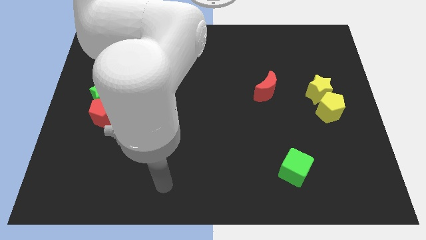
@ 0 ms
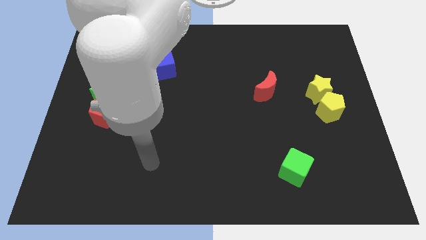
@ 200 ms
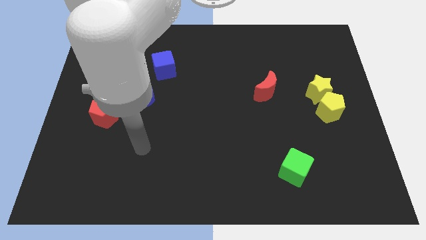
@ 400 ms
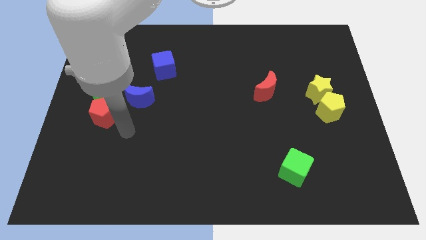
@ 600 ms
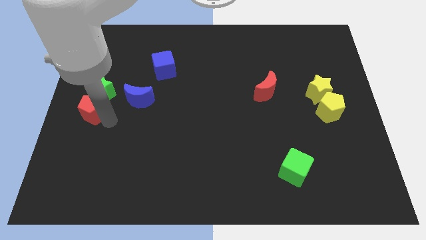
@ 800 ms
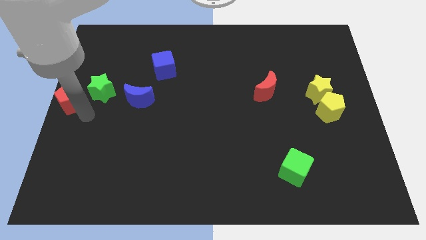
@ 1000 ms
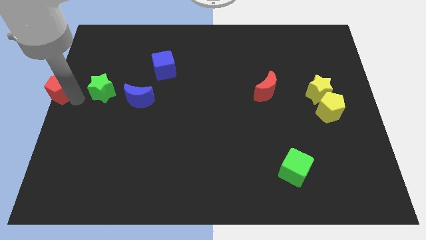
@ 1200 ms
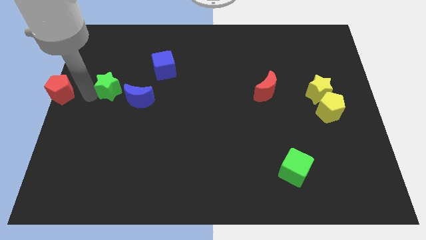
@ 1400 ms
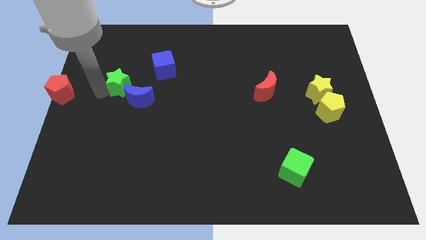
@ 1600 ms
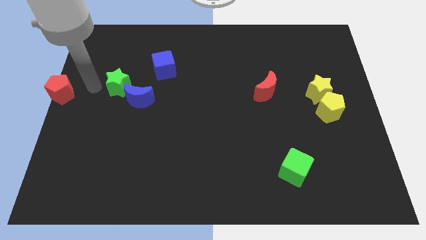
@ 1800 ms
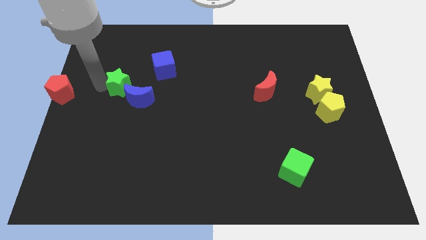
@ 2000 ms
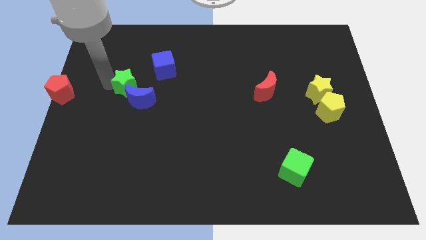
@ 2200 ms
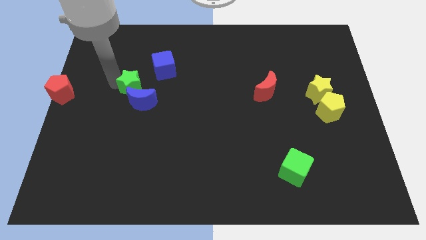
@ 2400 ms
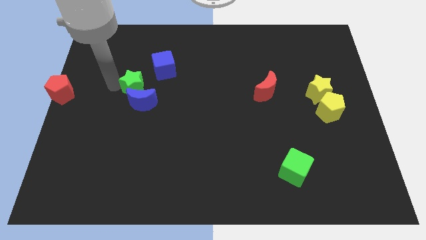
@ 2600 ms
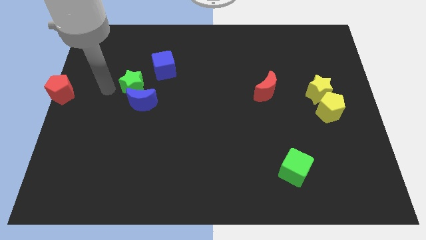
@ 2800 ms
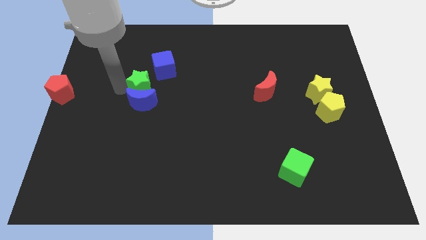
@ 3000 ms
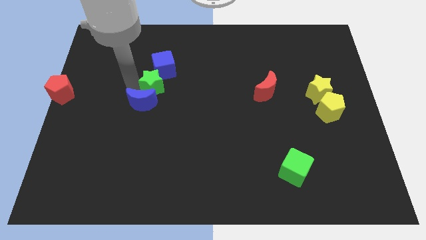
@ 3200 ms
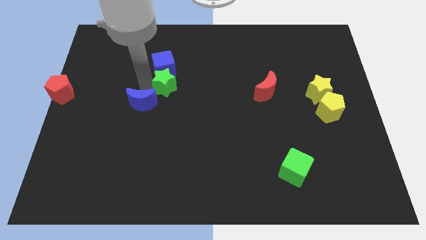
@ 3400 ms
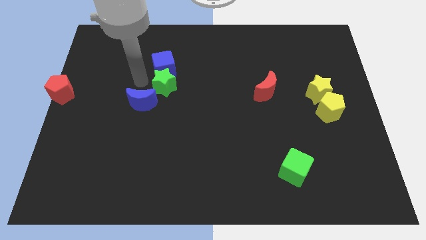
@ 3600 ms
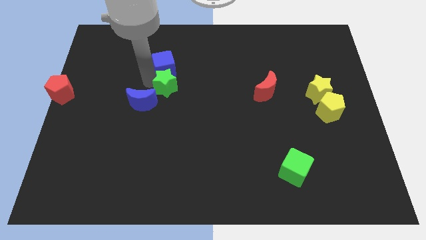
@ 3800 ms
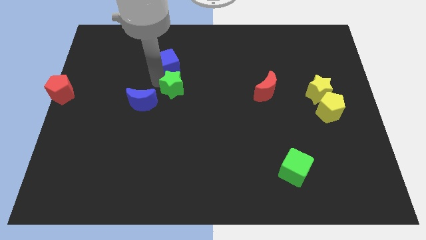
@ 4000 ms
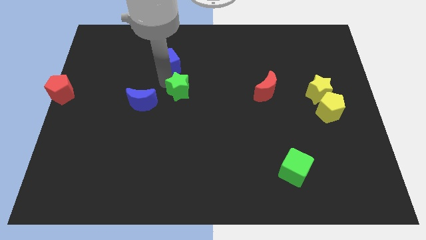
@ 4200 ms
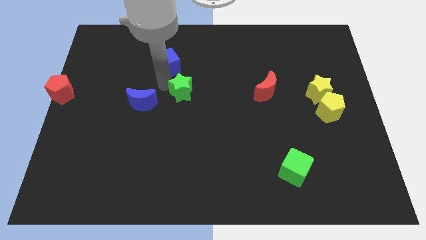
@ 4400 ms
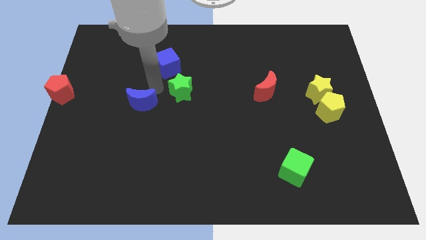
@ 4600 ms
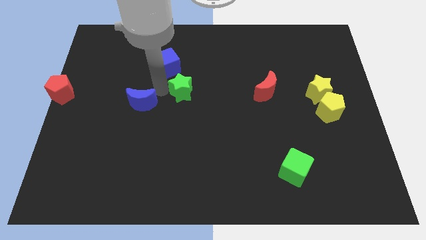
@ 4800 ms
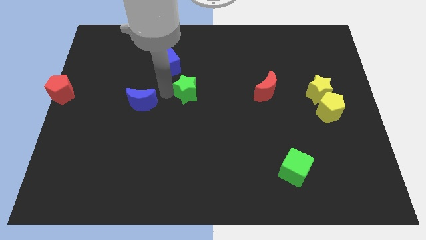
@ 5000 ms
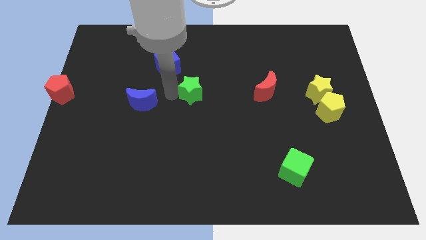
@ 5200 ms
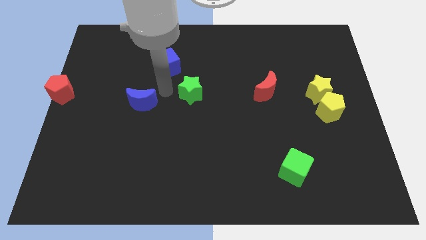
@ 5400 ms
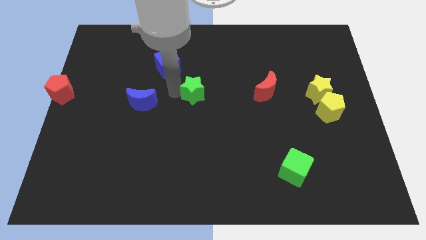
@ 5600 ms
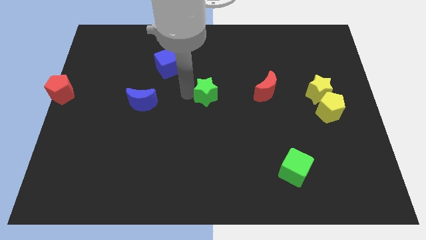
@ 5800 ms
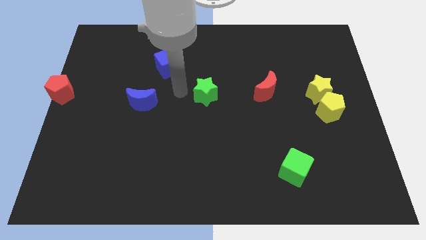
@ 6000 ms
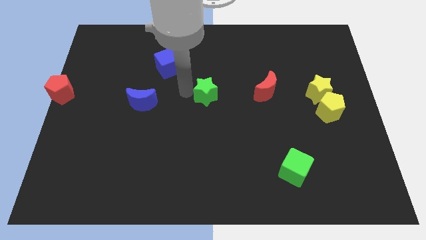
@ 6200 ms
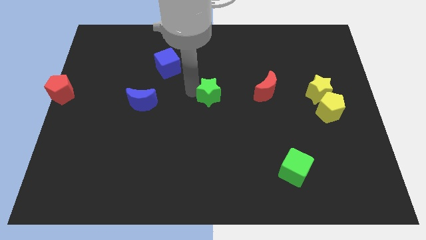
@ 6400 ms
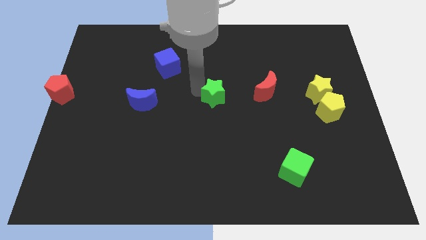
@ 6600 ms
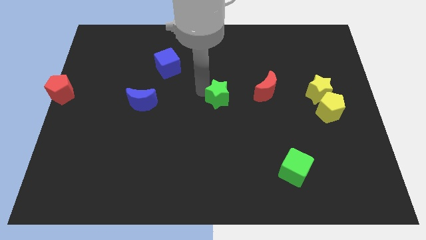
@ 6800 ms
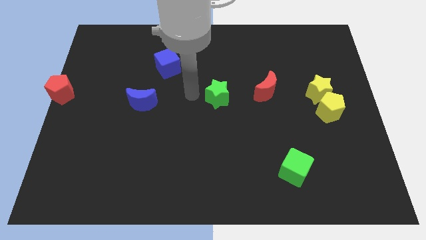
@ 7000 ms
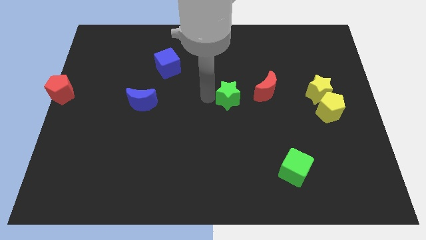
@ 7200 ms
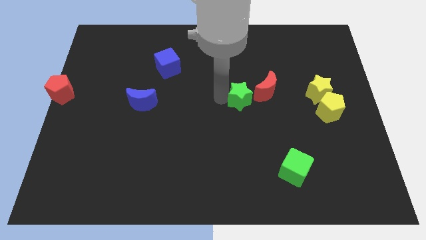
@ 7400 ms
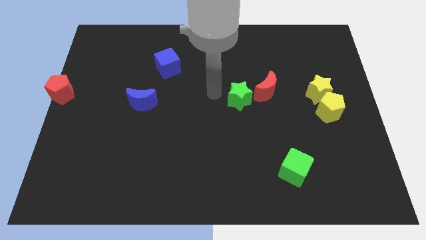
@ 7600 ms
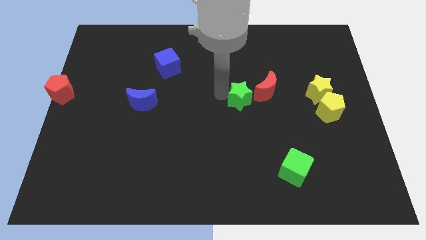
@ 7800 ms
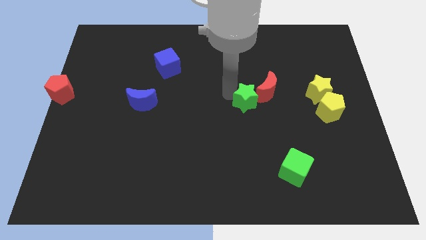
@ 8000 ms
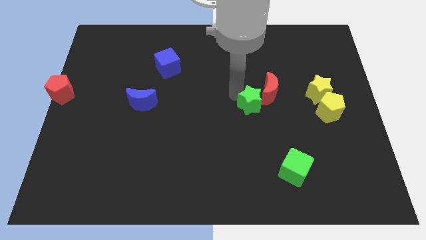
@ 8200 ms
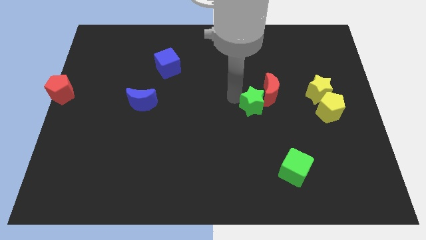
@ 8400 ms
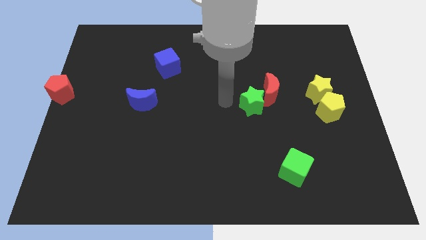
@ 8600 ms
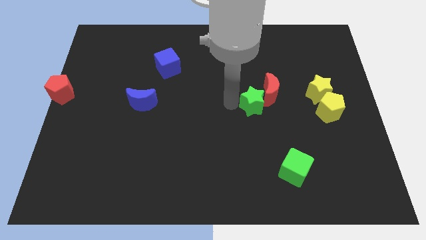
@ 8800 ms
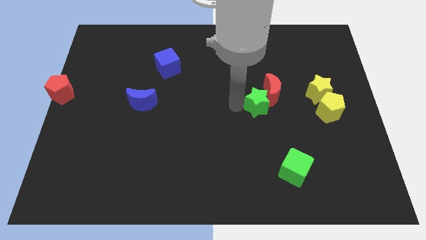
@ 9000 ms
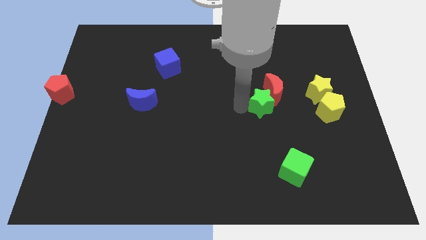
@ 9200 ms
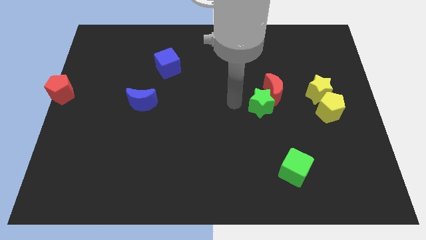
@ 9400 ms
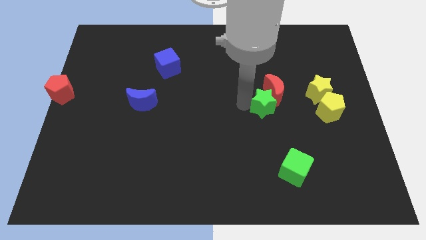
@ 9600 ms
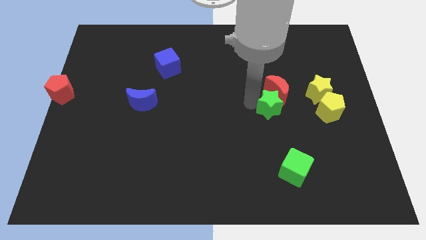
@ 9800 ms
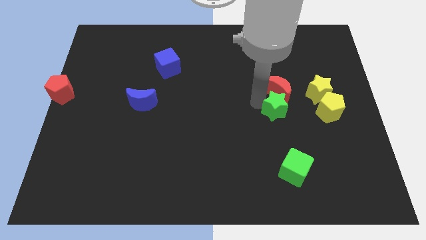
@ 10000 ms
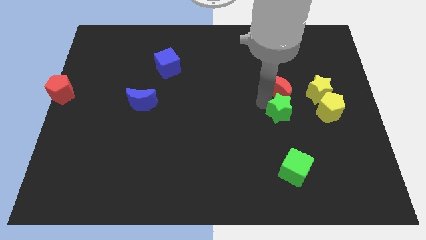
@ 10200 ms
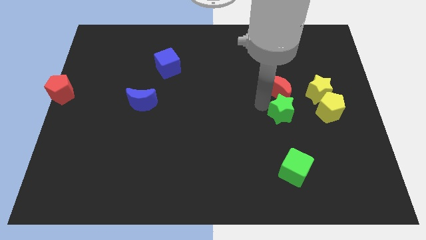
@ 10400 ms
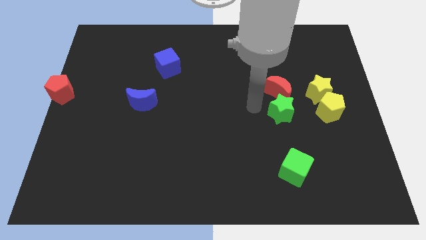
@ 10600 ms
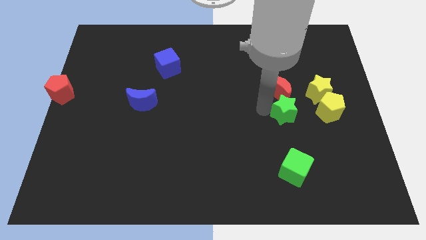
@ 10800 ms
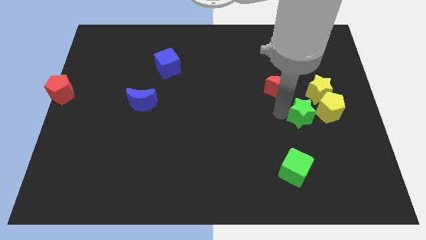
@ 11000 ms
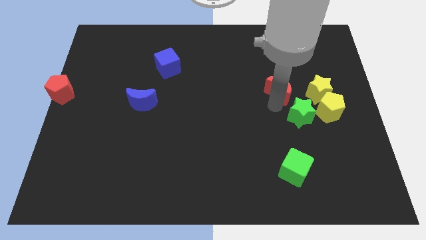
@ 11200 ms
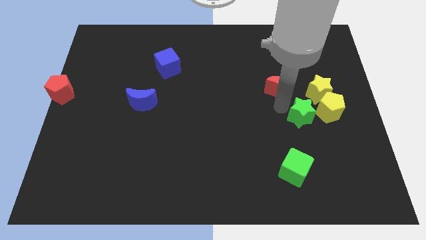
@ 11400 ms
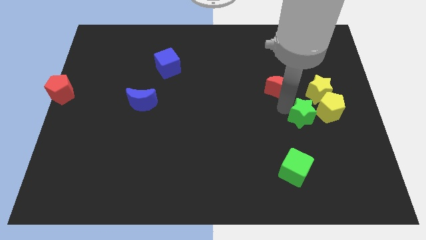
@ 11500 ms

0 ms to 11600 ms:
slide the green star to the bottom of the yellow star
